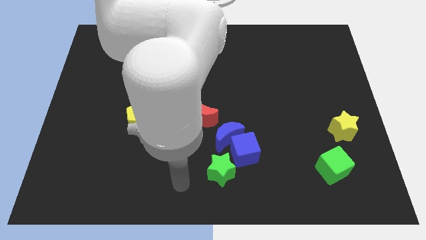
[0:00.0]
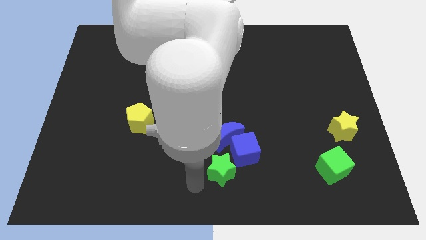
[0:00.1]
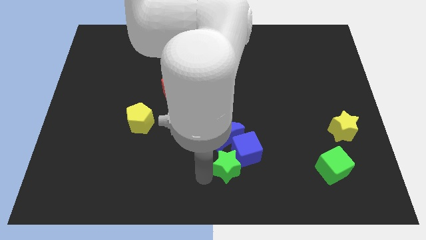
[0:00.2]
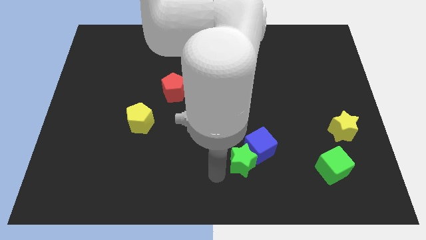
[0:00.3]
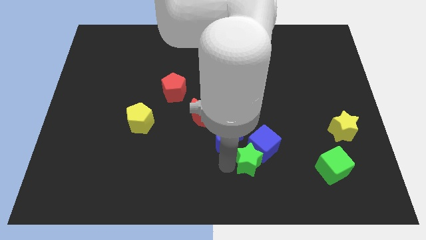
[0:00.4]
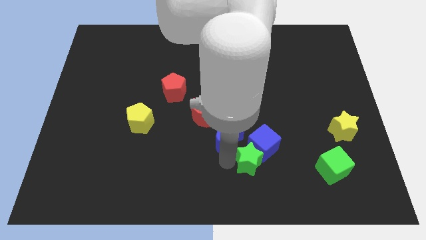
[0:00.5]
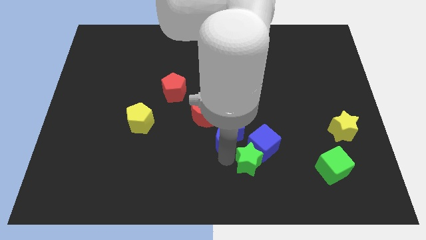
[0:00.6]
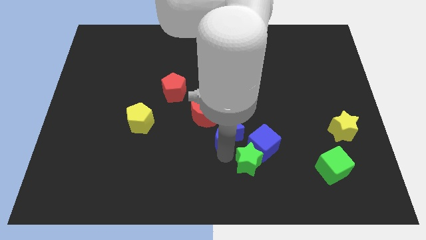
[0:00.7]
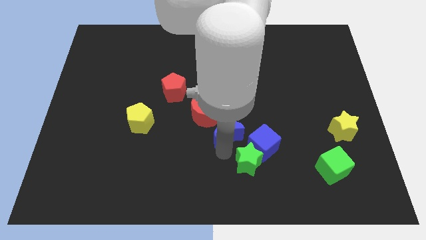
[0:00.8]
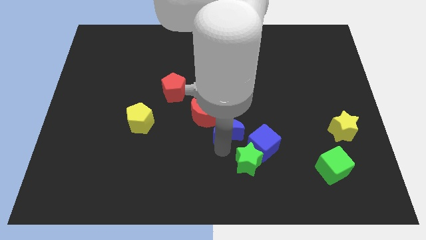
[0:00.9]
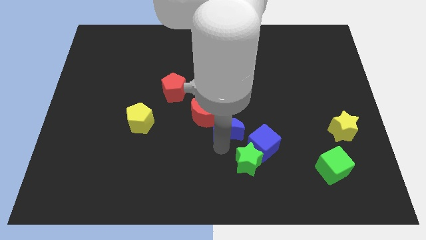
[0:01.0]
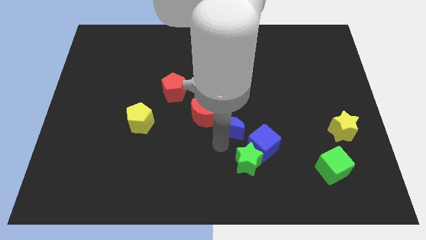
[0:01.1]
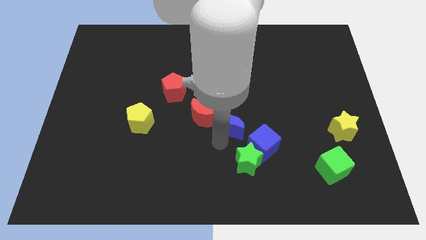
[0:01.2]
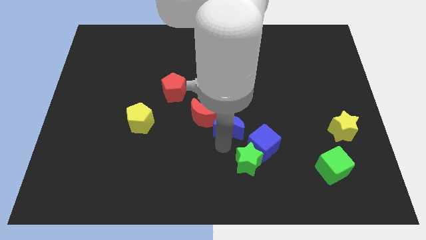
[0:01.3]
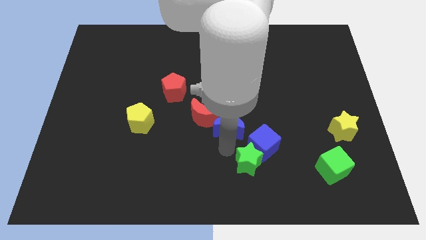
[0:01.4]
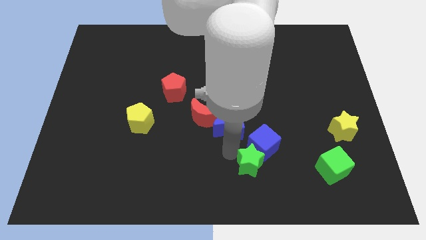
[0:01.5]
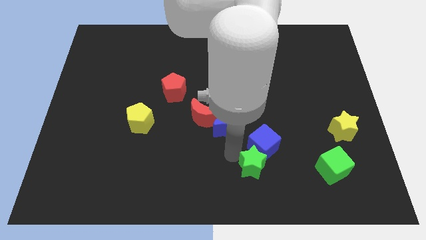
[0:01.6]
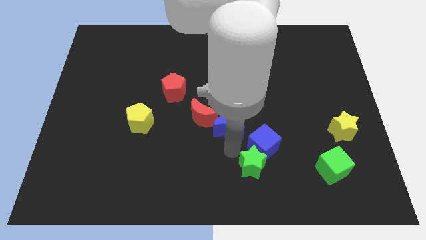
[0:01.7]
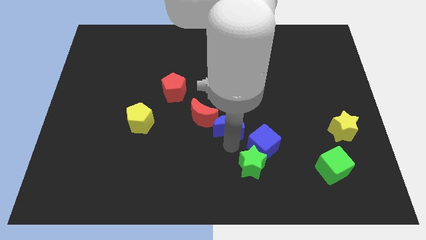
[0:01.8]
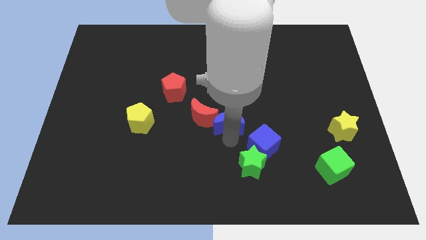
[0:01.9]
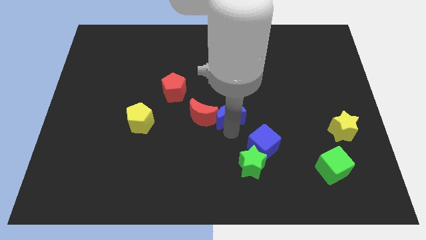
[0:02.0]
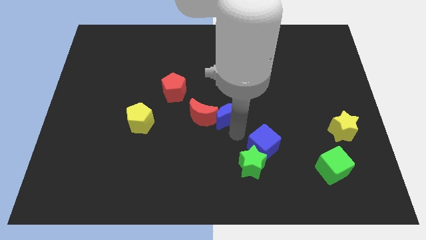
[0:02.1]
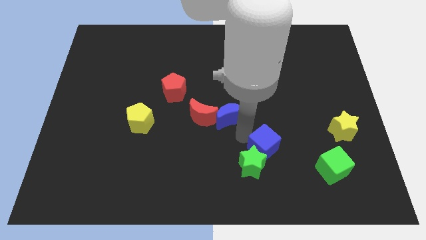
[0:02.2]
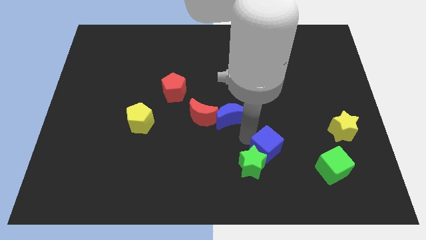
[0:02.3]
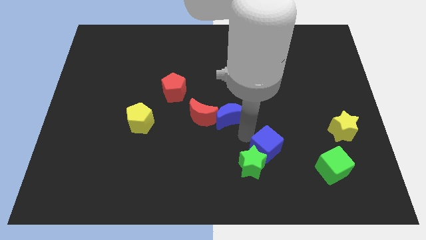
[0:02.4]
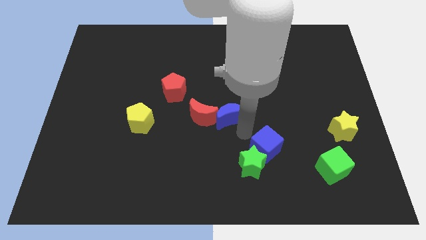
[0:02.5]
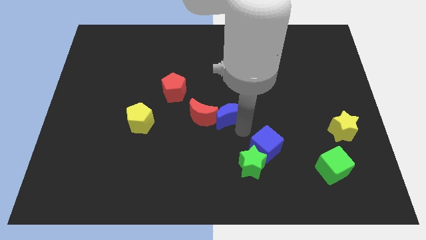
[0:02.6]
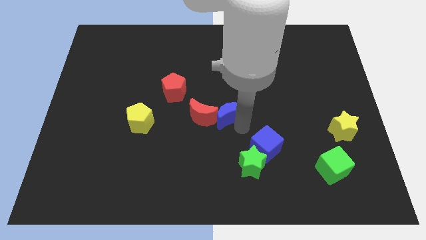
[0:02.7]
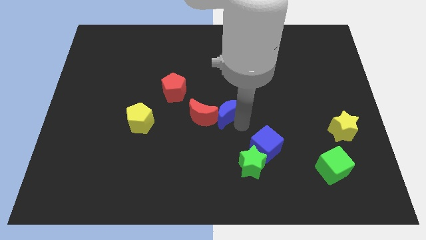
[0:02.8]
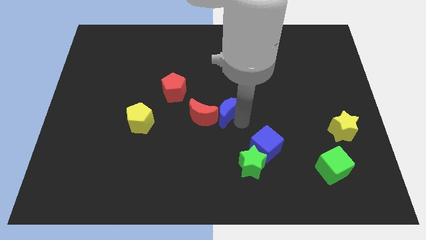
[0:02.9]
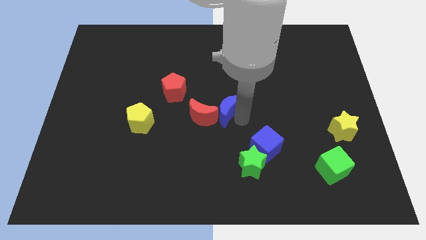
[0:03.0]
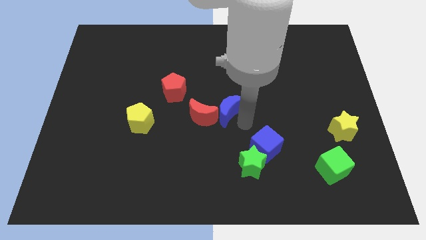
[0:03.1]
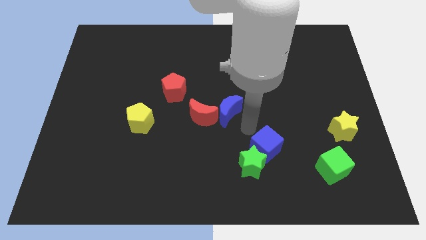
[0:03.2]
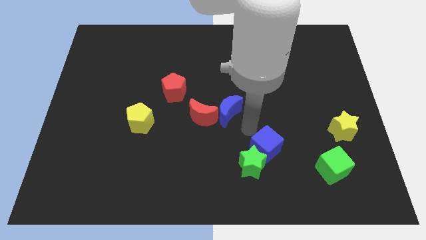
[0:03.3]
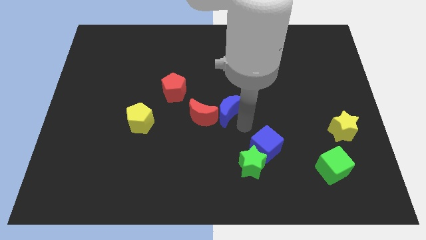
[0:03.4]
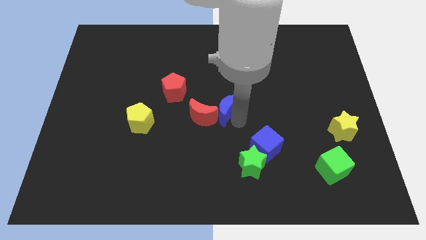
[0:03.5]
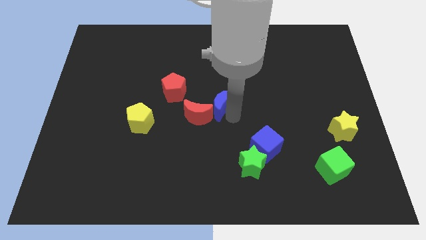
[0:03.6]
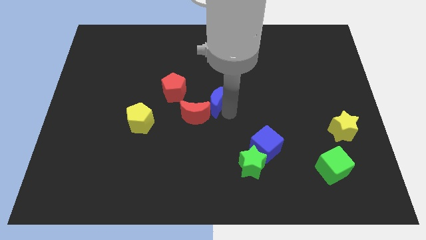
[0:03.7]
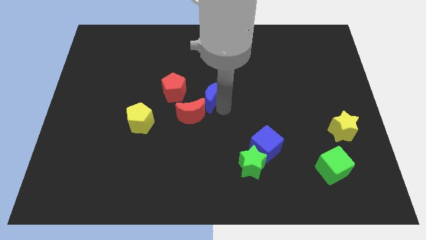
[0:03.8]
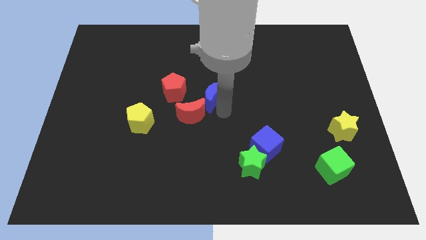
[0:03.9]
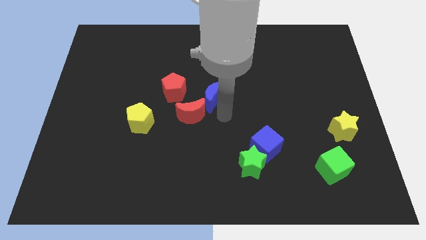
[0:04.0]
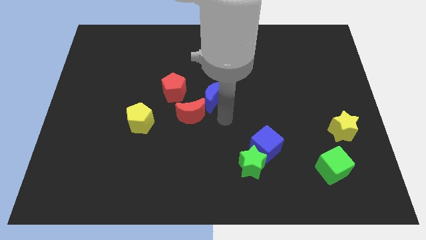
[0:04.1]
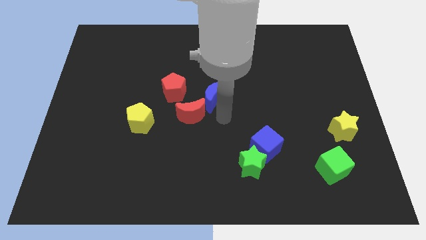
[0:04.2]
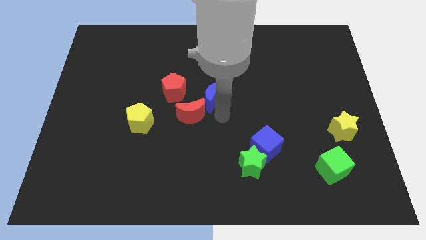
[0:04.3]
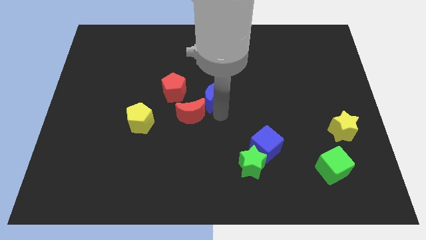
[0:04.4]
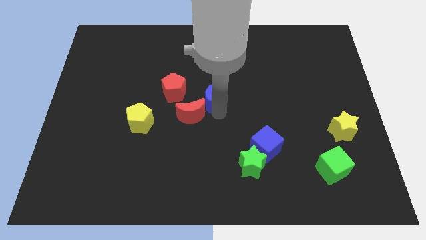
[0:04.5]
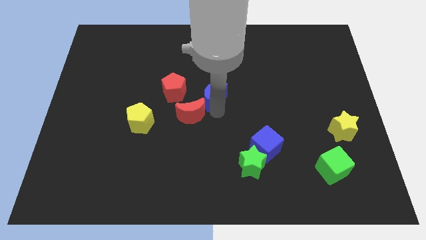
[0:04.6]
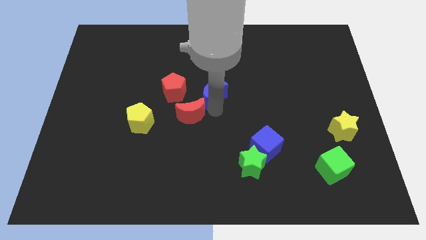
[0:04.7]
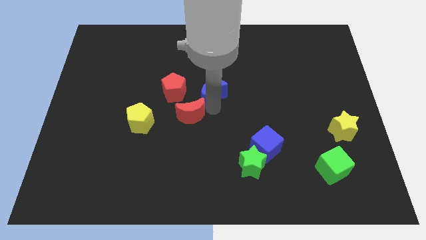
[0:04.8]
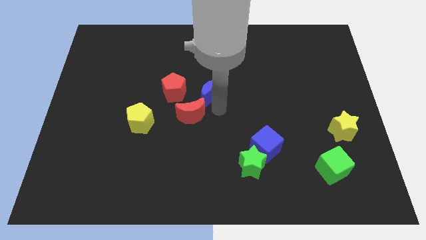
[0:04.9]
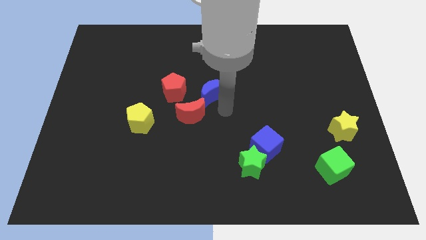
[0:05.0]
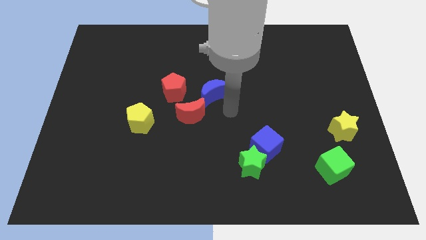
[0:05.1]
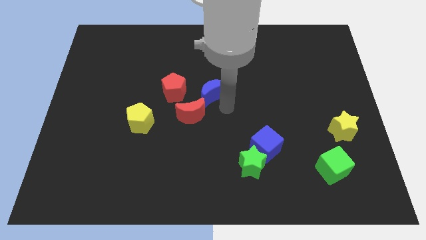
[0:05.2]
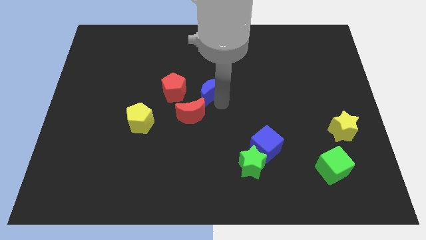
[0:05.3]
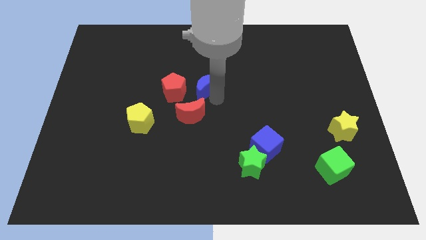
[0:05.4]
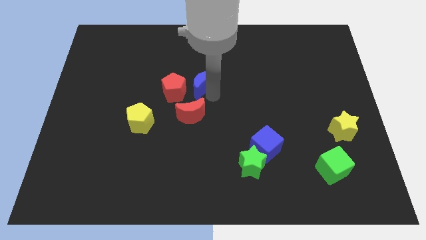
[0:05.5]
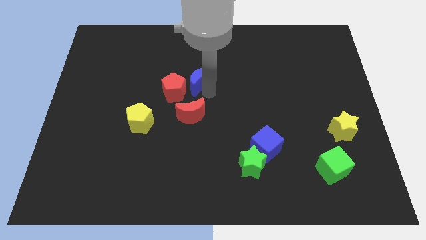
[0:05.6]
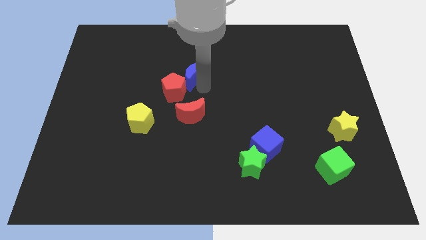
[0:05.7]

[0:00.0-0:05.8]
move the blue moon to the top of the red pentagon

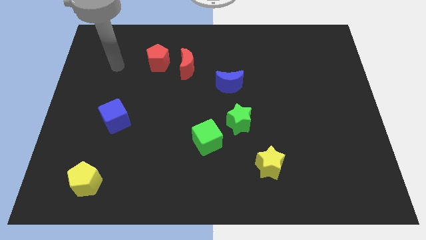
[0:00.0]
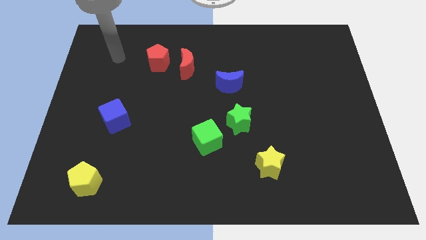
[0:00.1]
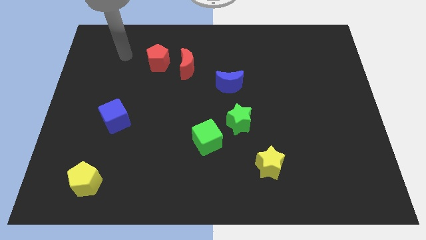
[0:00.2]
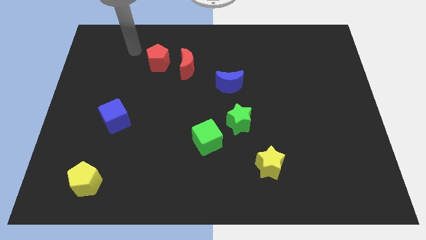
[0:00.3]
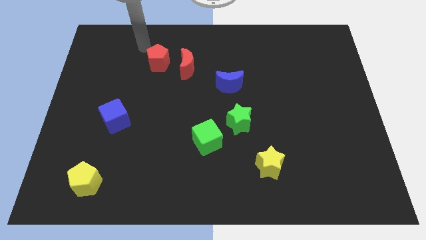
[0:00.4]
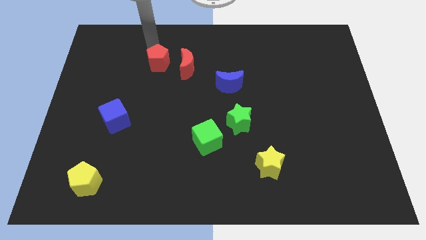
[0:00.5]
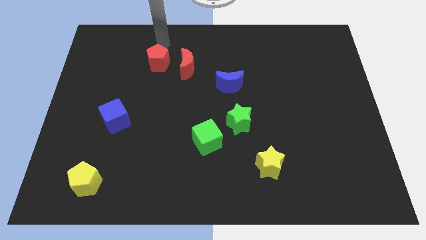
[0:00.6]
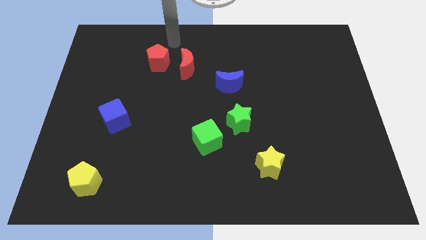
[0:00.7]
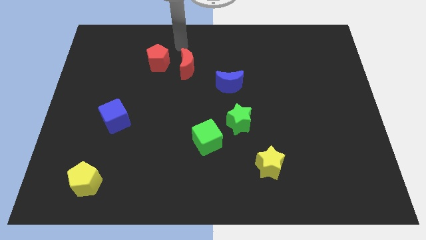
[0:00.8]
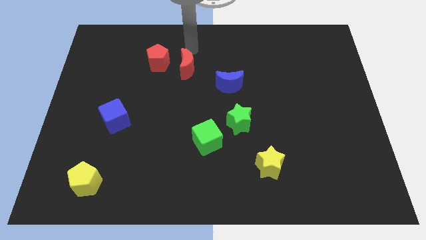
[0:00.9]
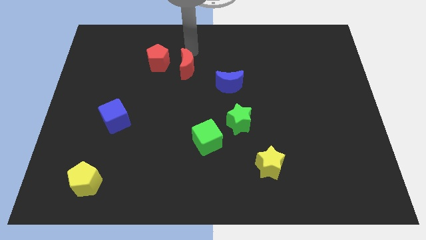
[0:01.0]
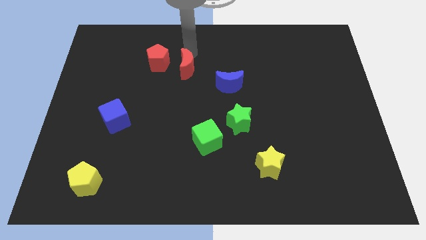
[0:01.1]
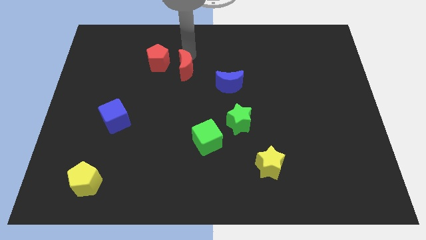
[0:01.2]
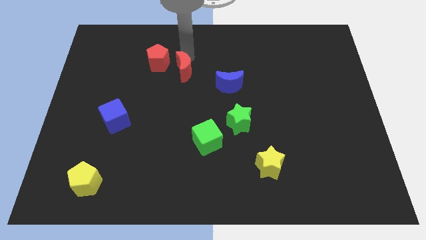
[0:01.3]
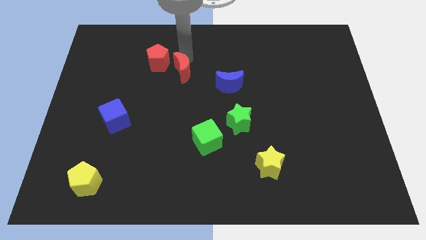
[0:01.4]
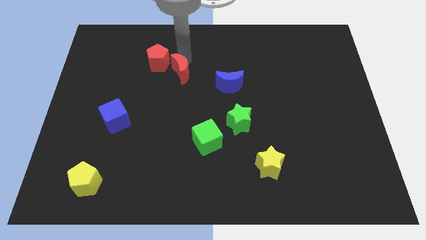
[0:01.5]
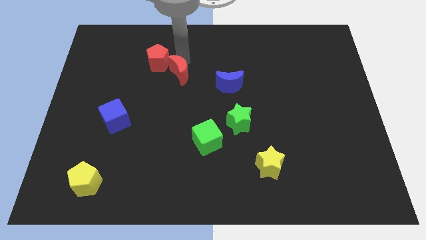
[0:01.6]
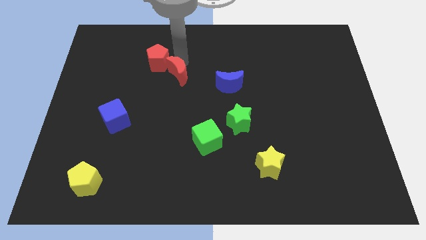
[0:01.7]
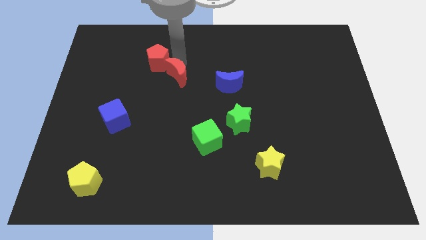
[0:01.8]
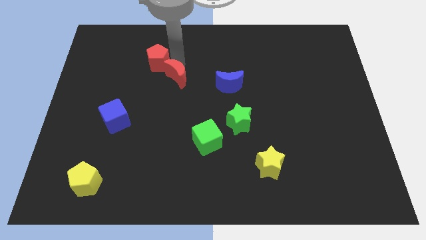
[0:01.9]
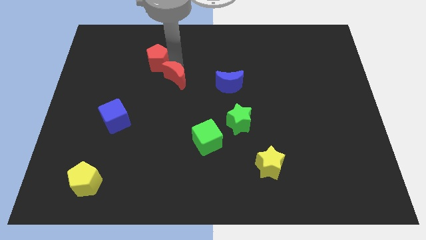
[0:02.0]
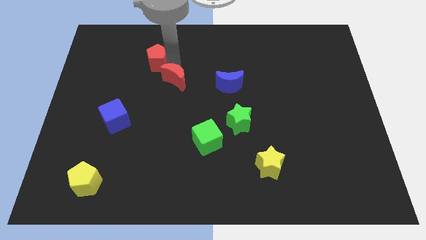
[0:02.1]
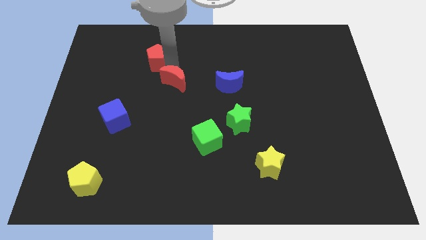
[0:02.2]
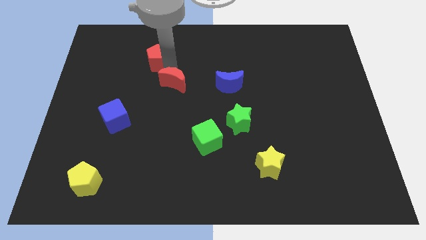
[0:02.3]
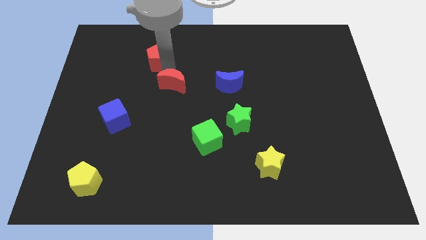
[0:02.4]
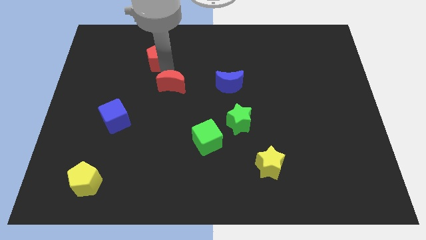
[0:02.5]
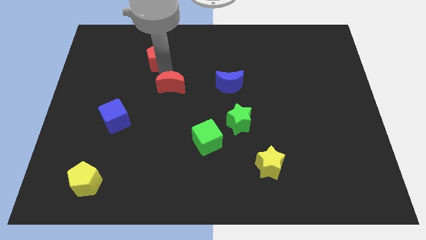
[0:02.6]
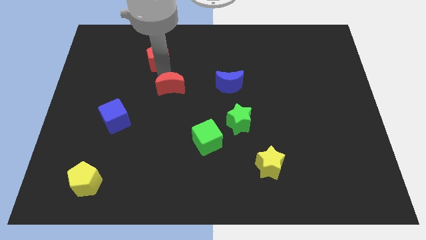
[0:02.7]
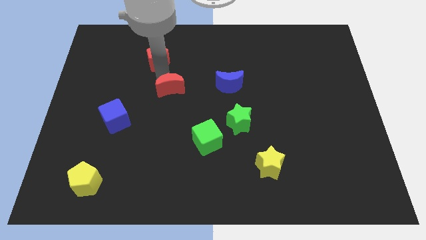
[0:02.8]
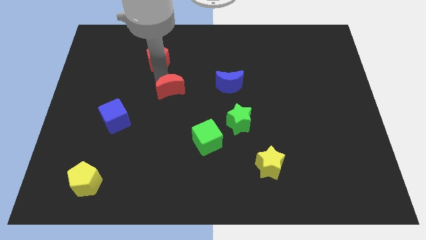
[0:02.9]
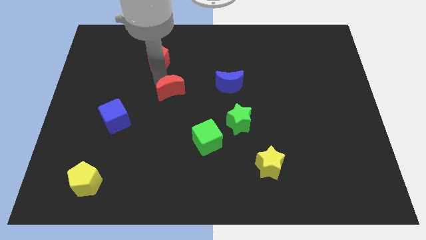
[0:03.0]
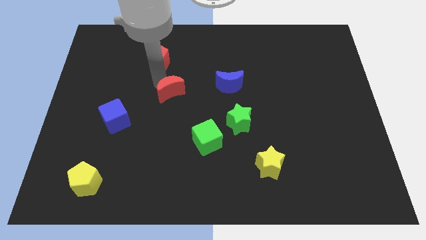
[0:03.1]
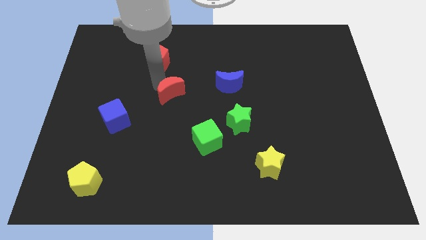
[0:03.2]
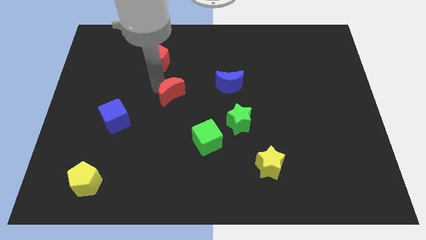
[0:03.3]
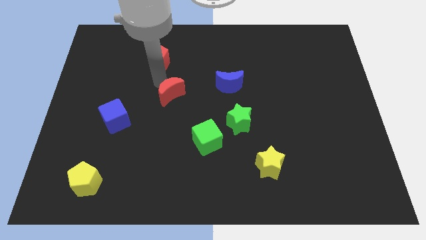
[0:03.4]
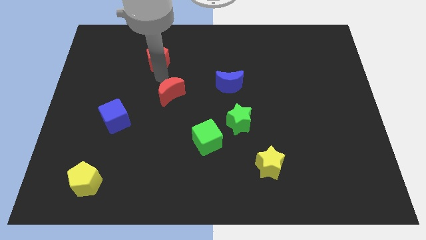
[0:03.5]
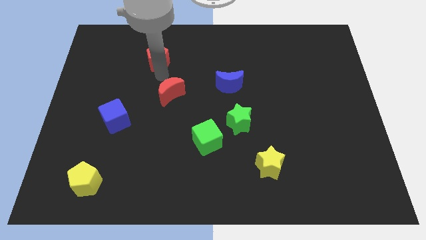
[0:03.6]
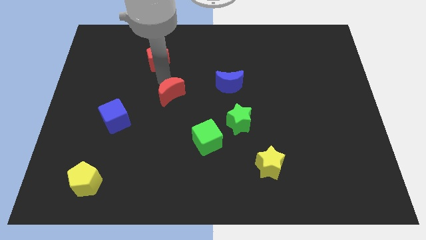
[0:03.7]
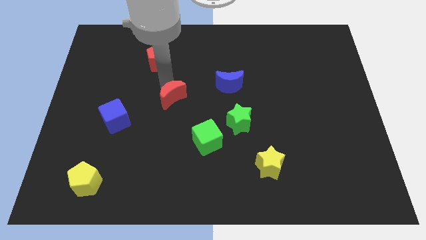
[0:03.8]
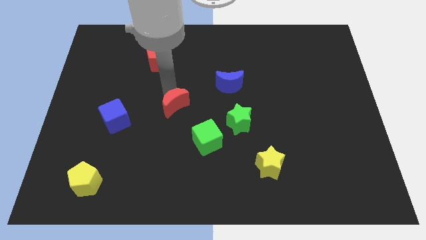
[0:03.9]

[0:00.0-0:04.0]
push the red moon to the top left of the green cube
